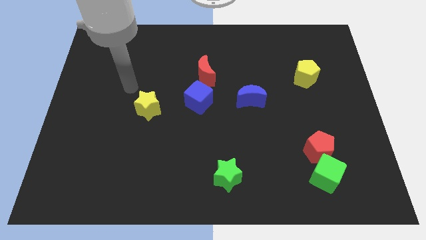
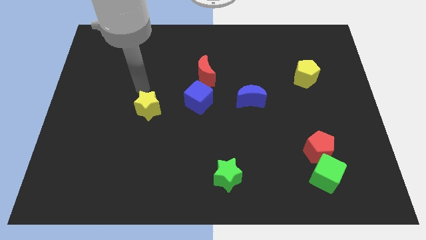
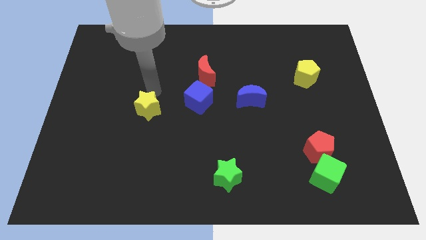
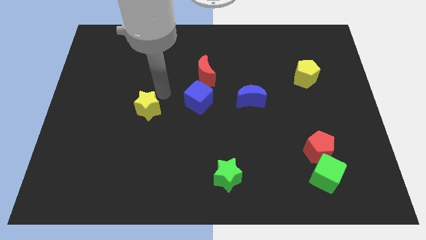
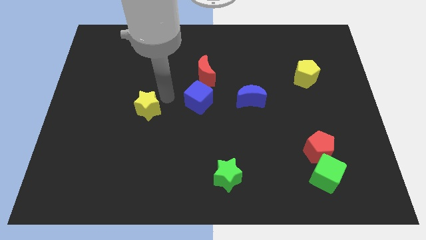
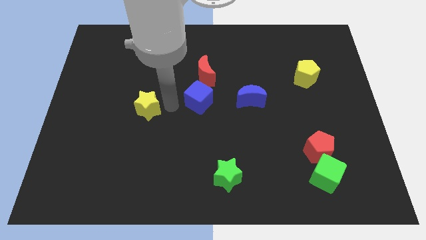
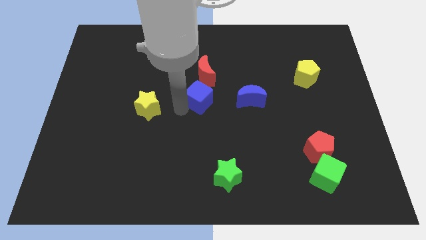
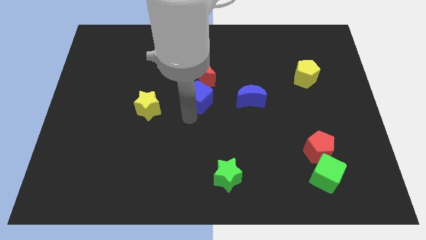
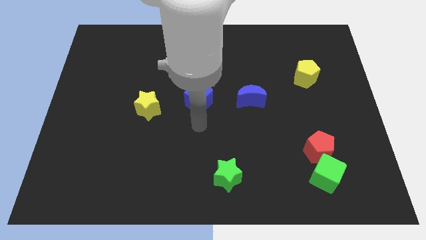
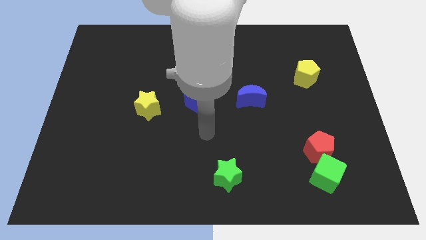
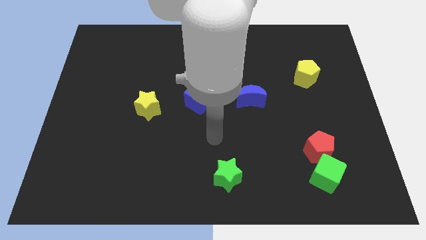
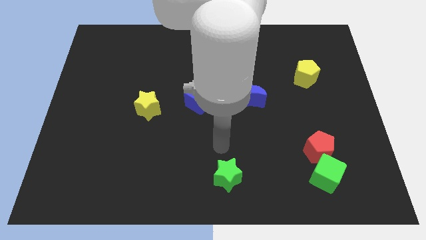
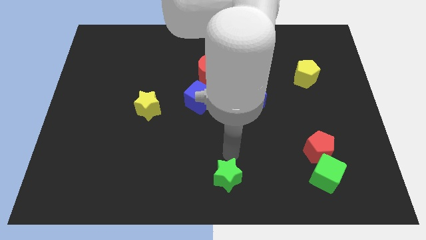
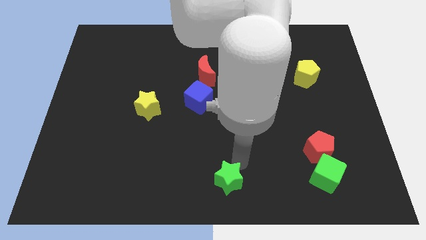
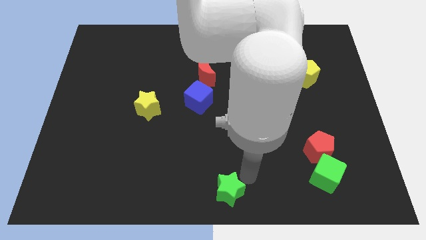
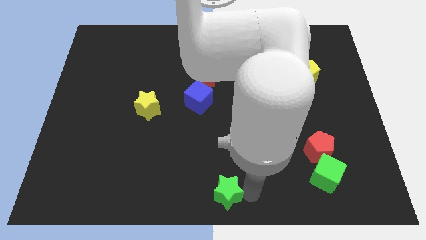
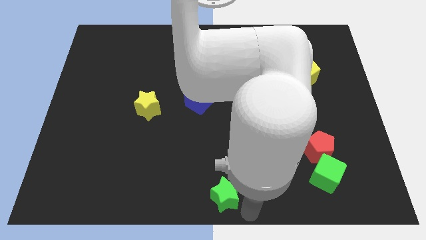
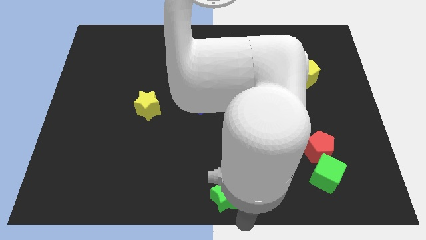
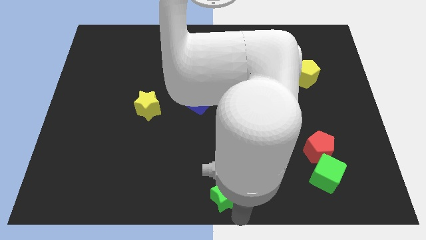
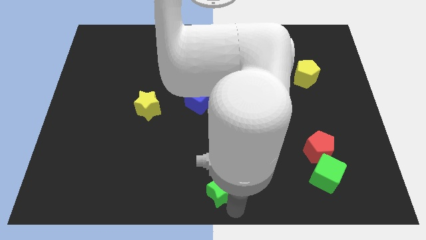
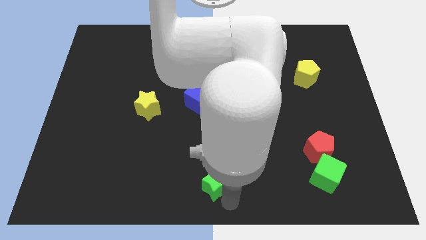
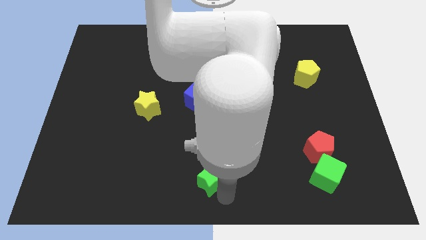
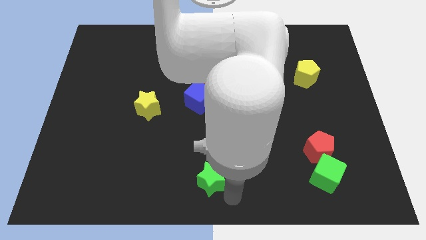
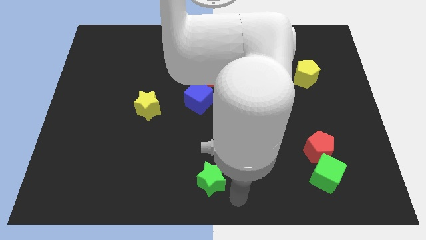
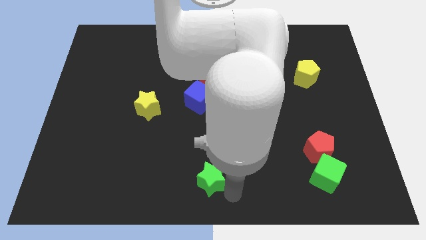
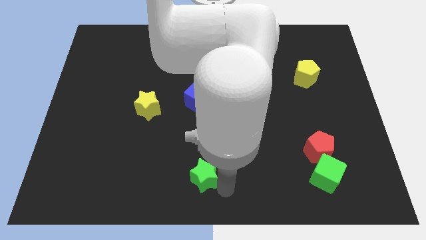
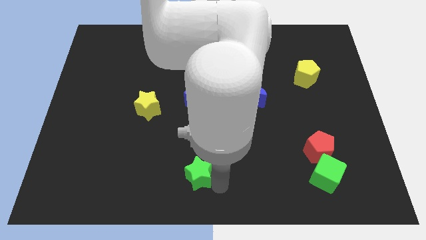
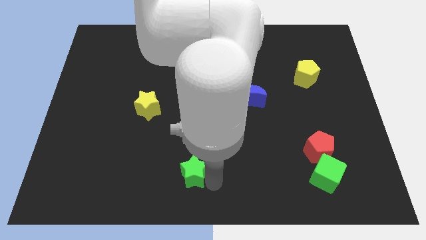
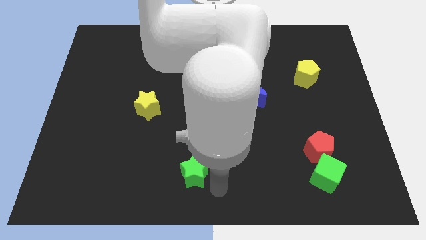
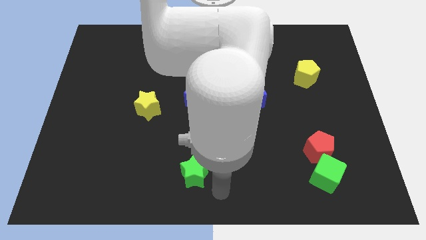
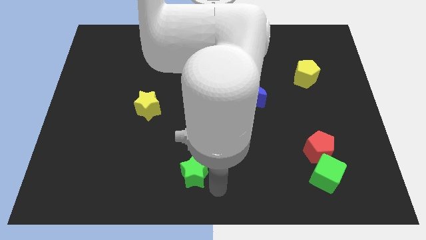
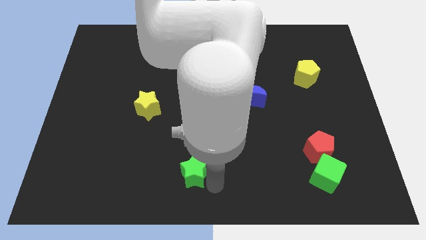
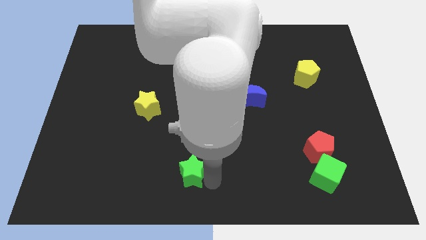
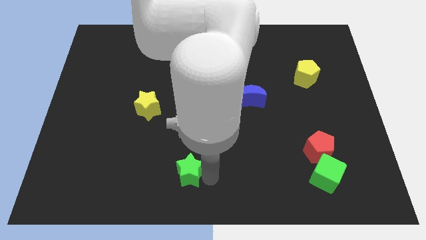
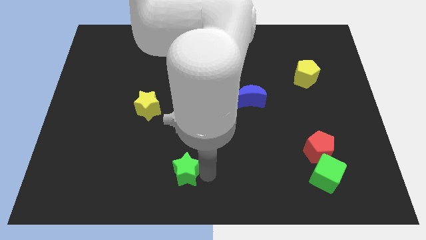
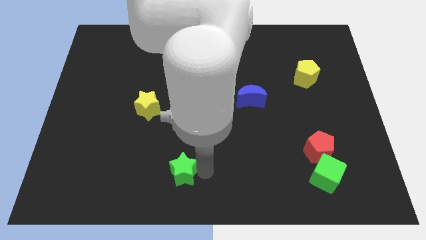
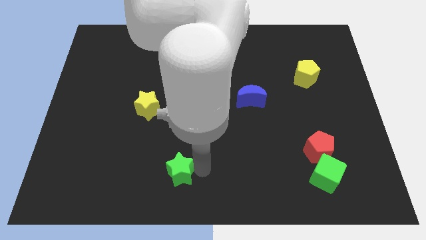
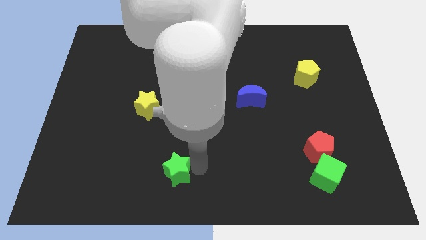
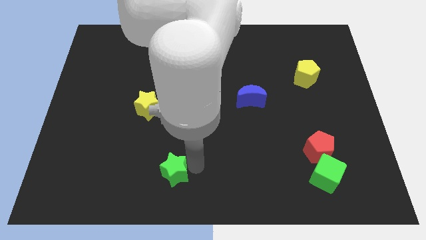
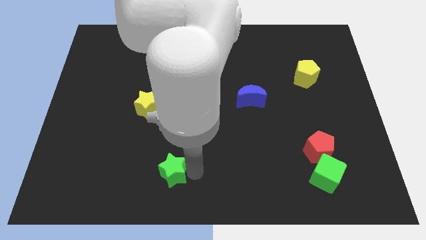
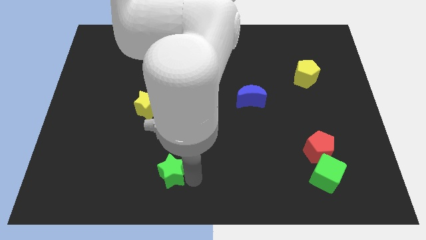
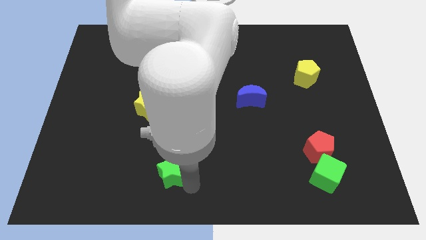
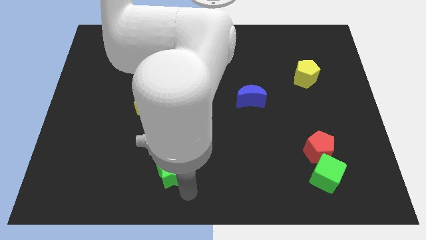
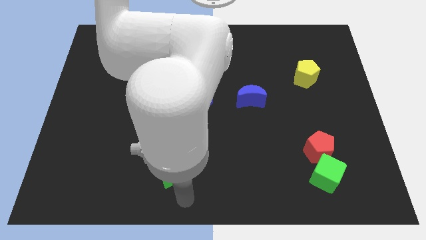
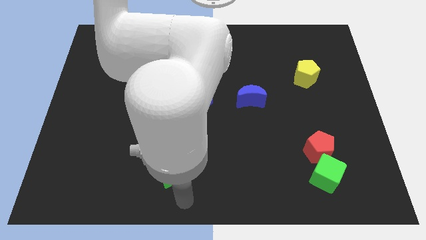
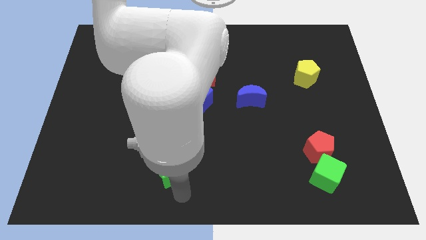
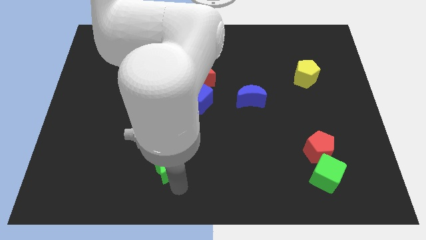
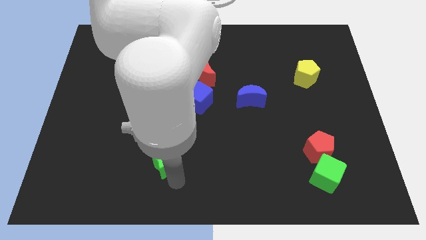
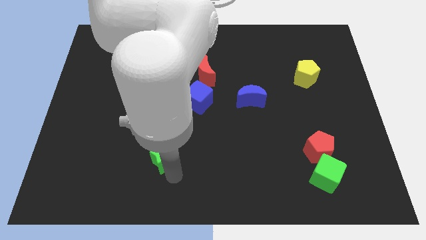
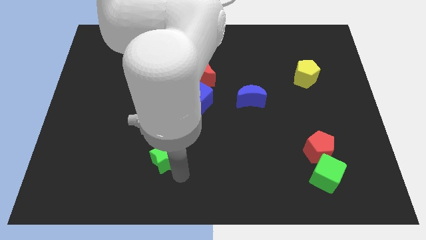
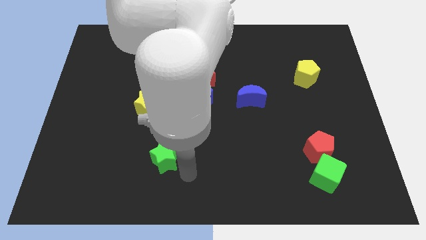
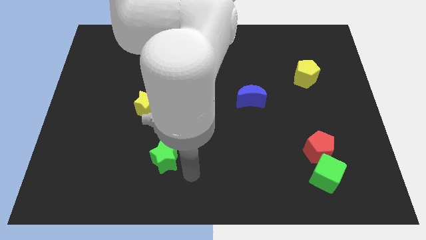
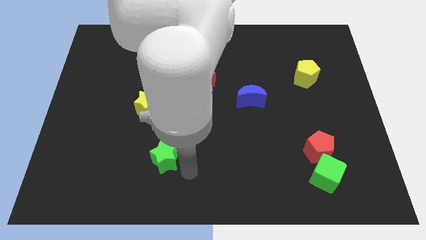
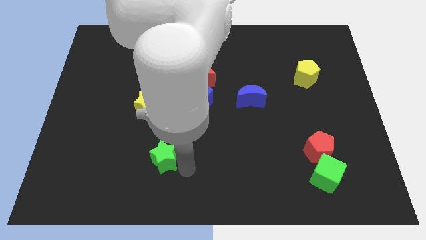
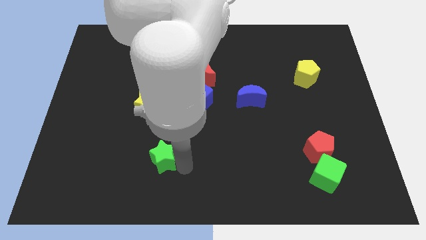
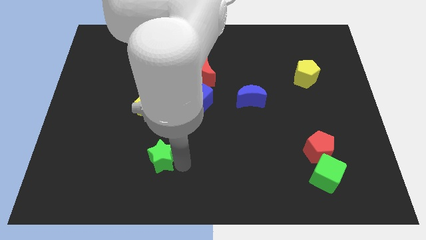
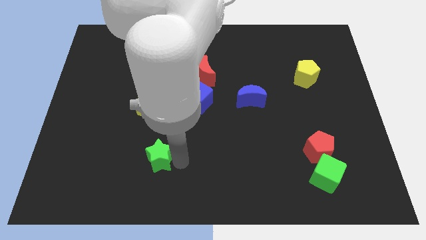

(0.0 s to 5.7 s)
slide the green star to the bottom side of the yellow star

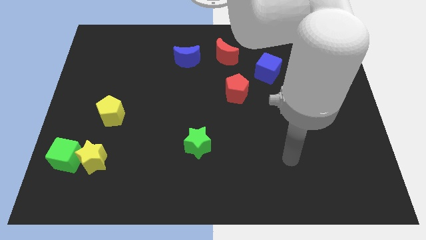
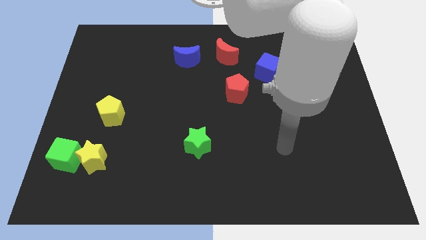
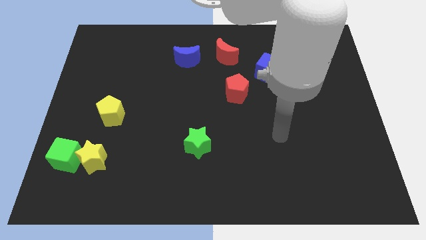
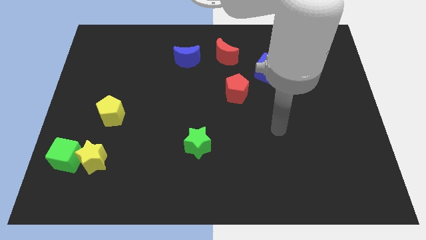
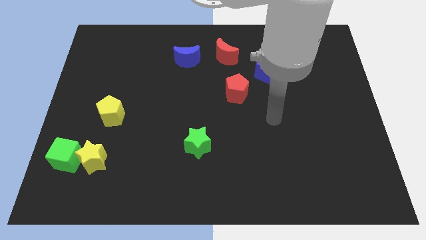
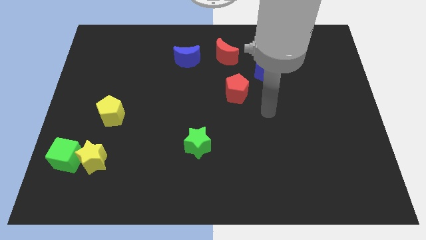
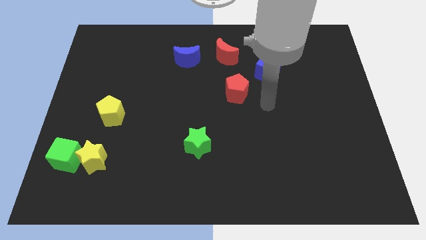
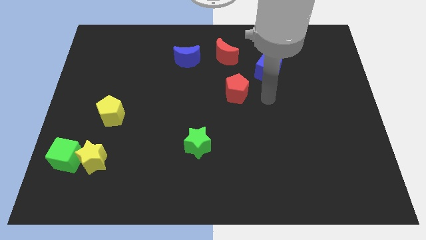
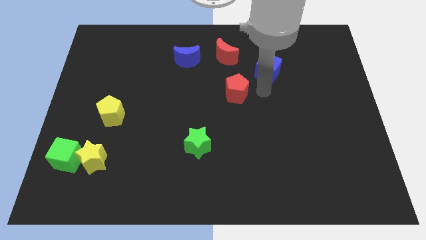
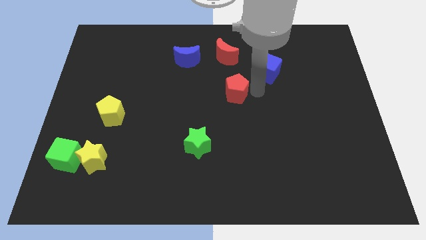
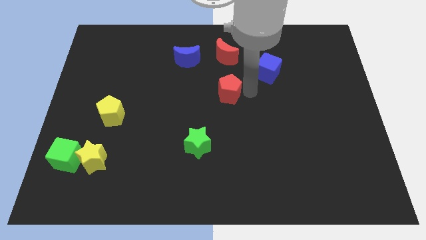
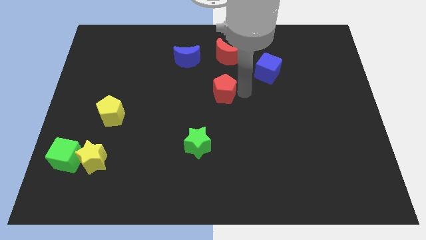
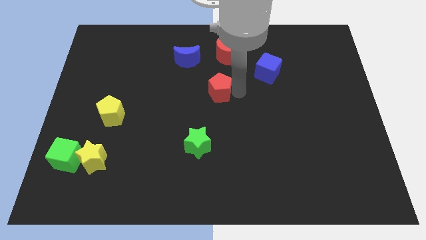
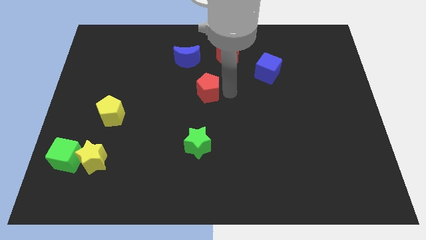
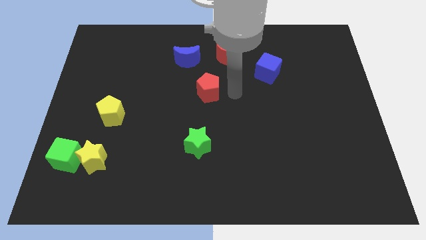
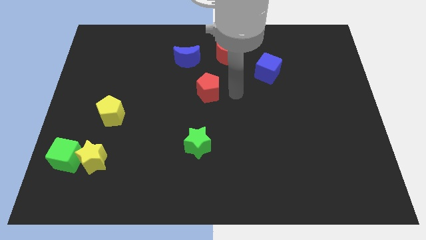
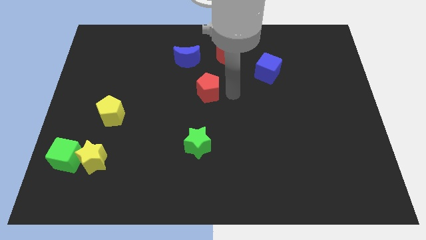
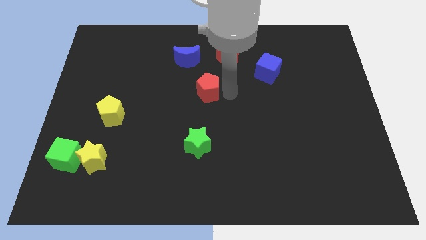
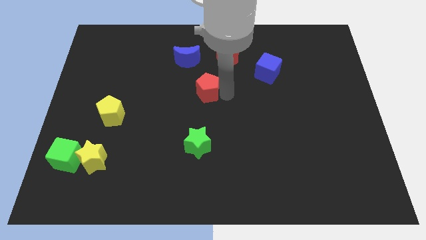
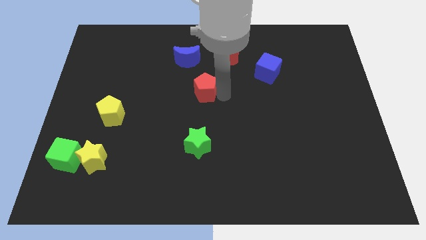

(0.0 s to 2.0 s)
move the red pentagon below the blue moon
